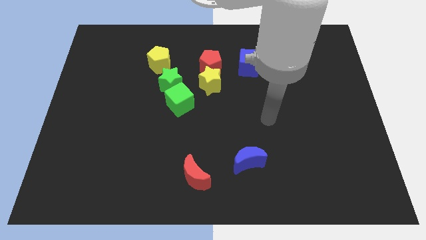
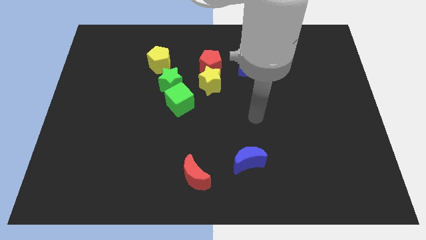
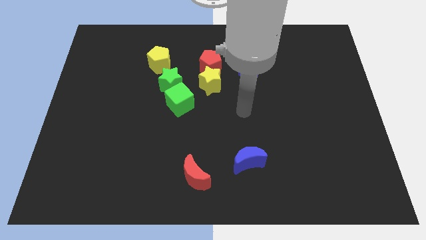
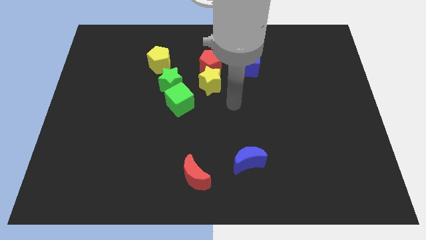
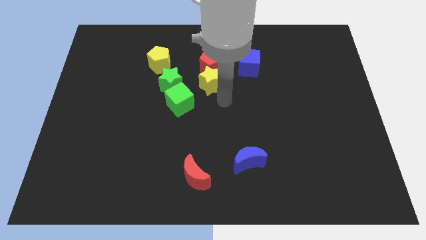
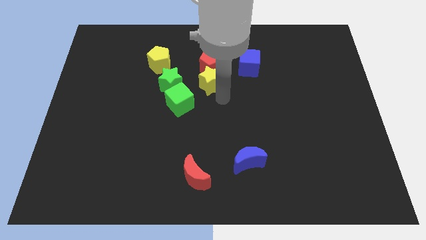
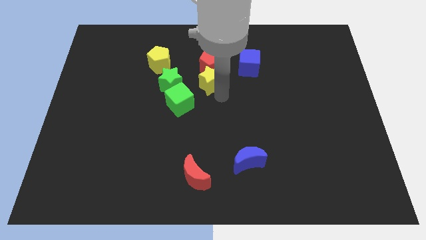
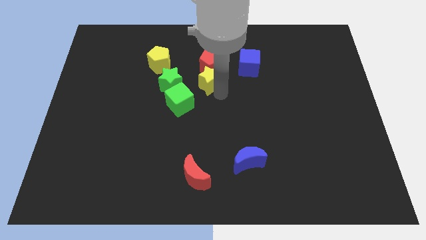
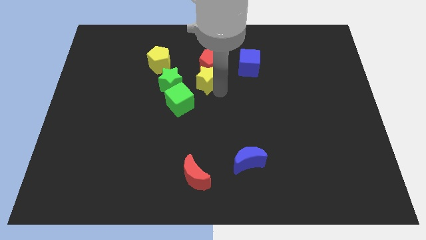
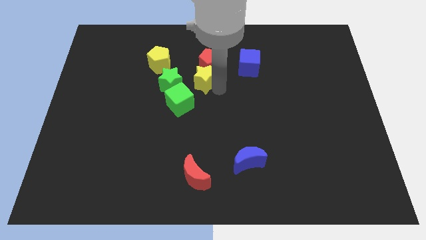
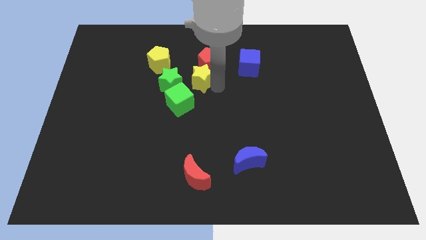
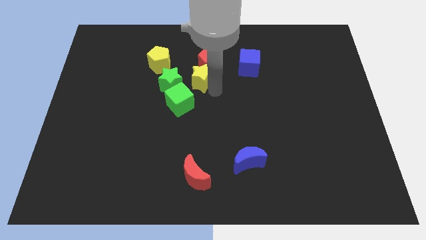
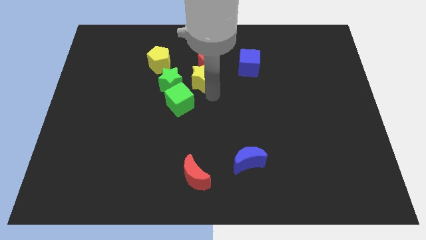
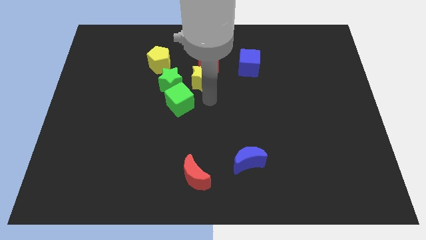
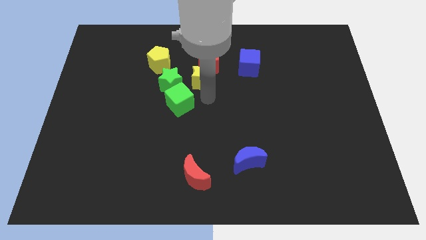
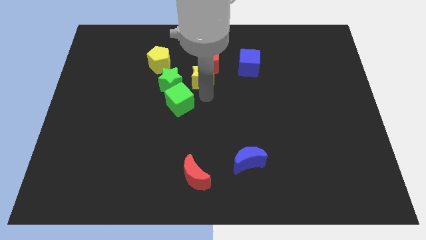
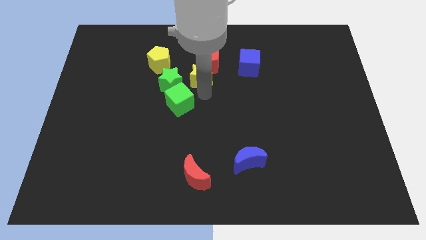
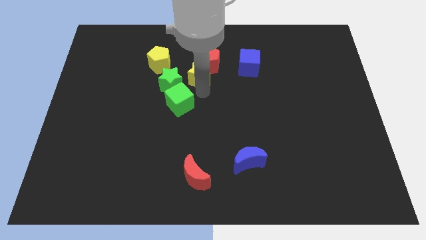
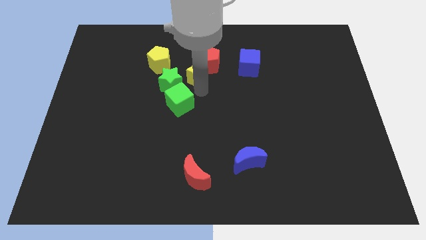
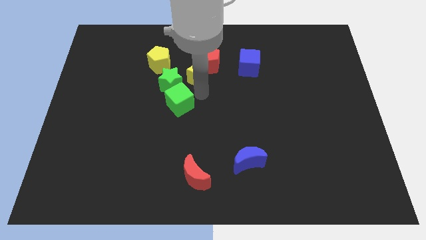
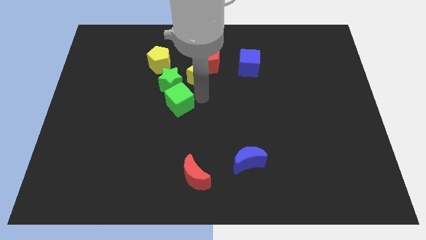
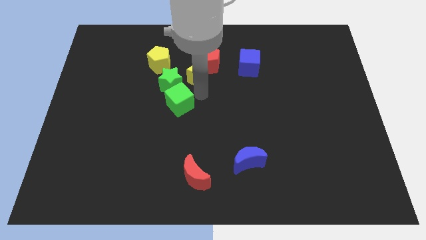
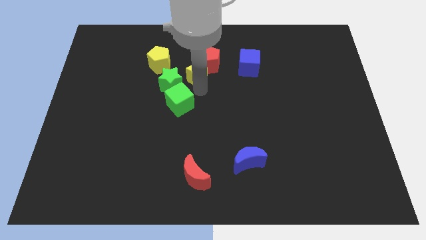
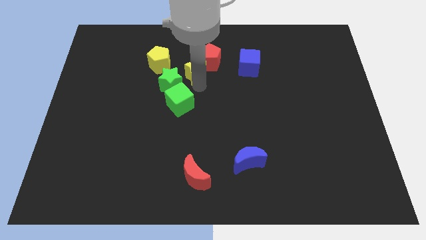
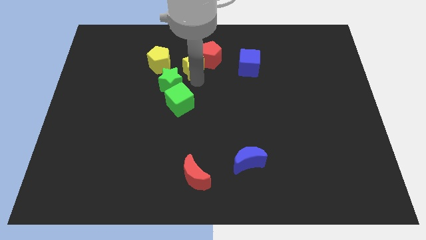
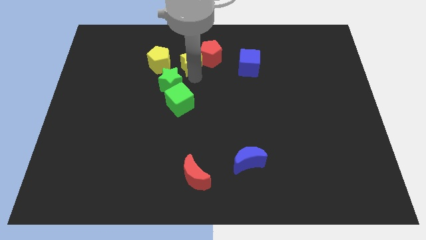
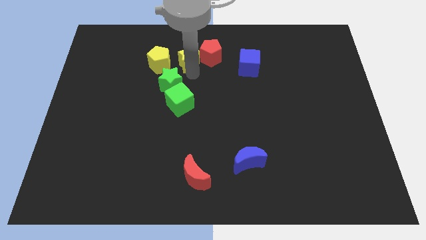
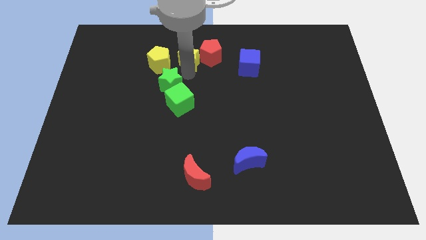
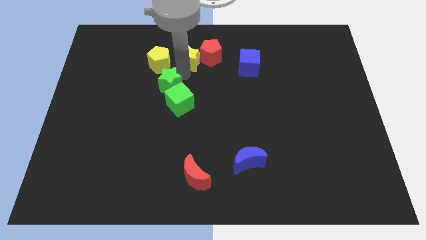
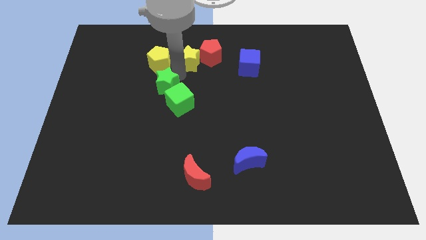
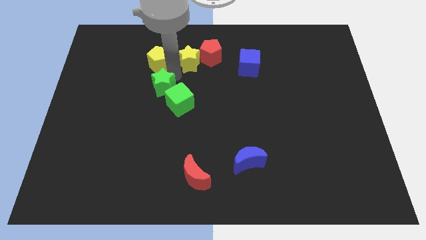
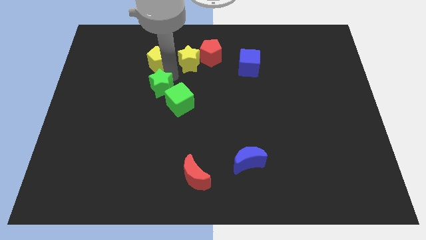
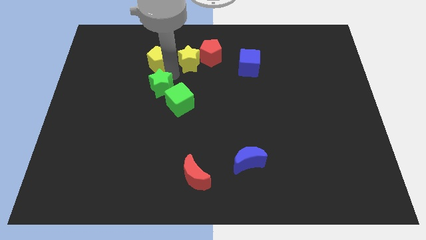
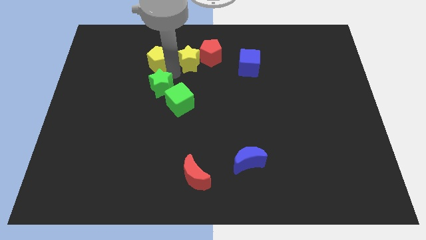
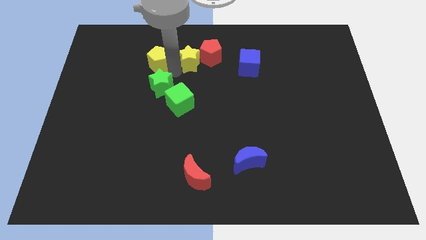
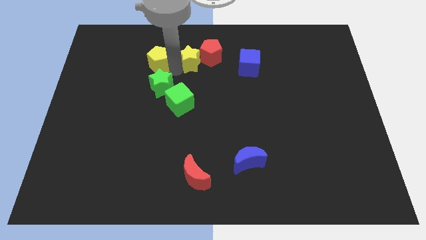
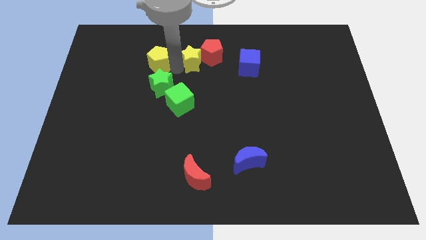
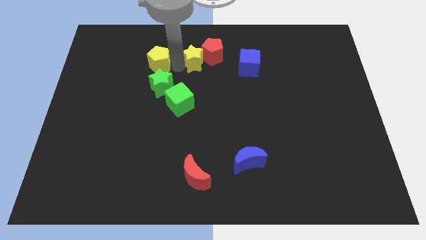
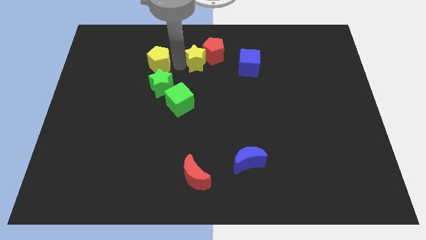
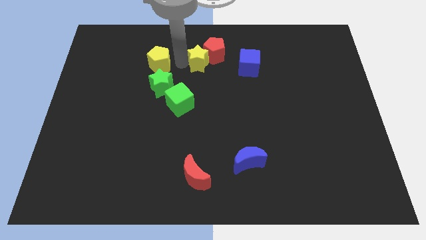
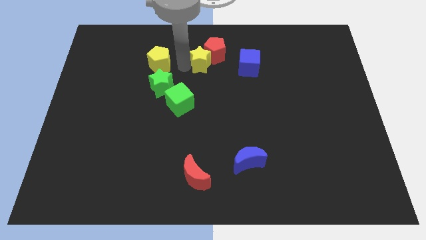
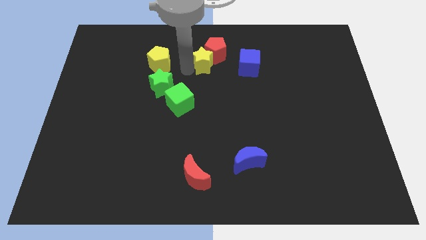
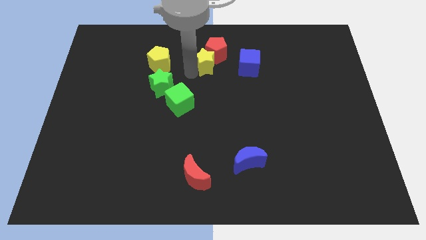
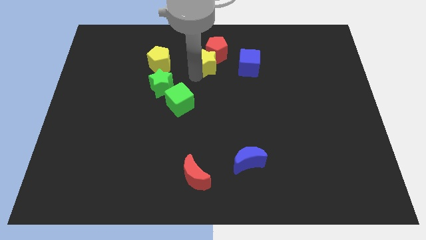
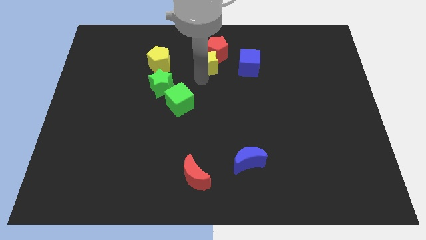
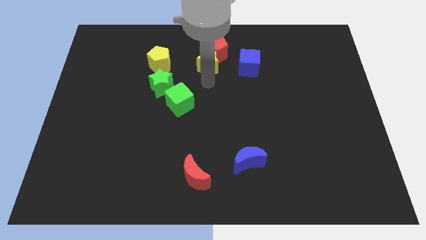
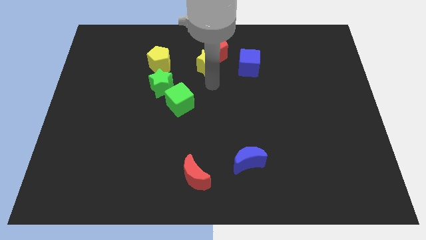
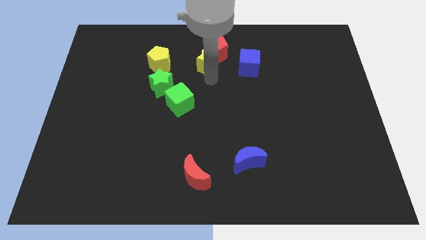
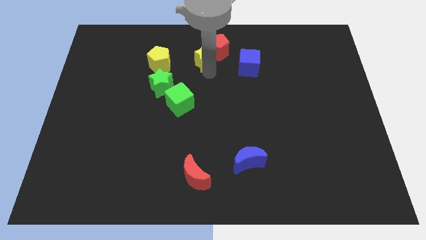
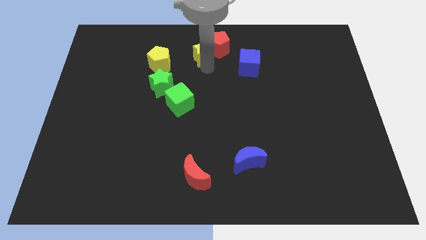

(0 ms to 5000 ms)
push the yellow star to the top
